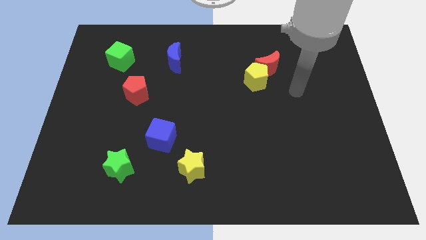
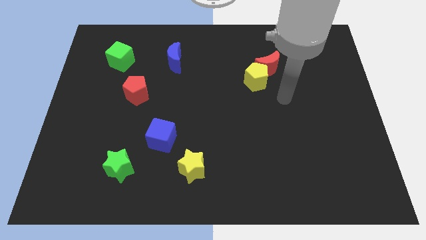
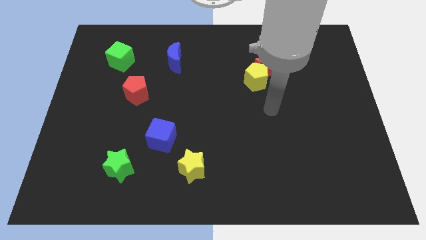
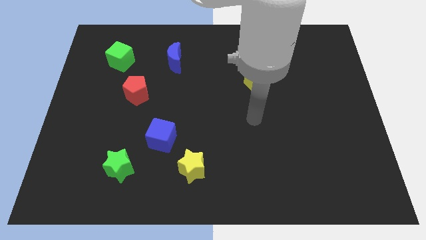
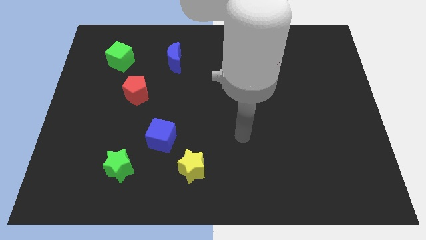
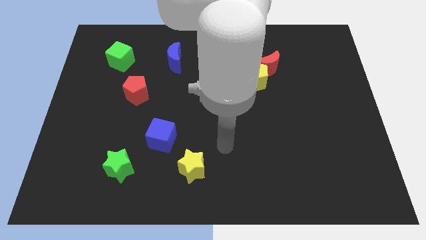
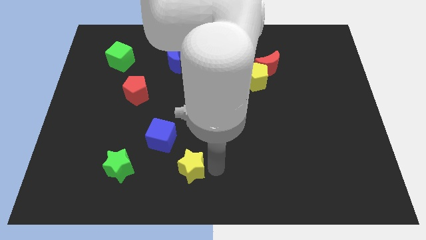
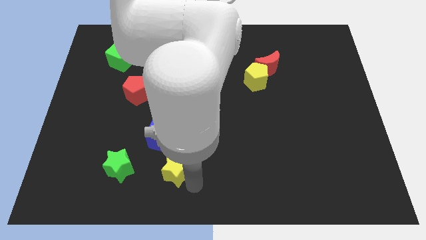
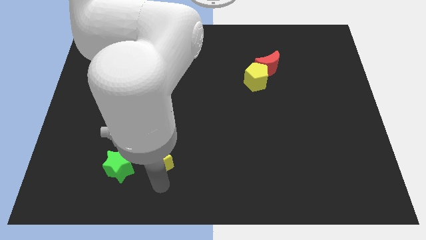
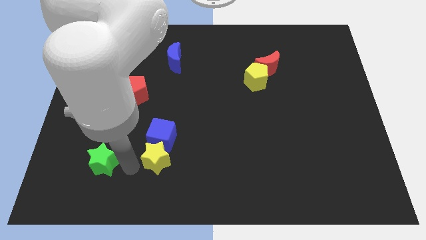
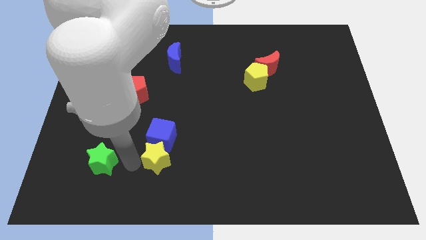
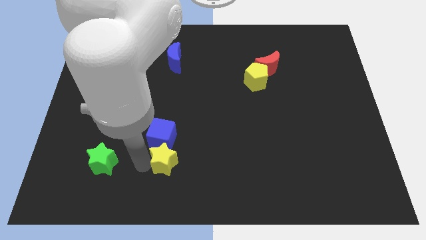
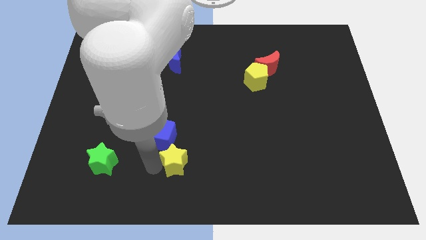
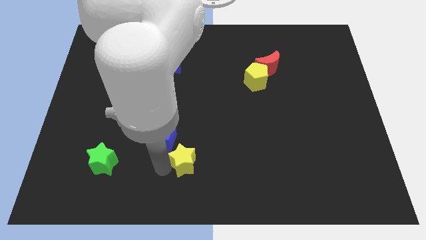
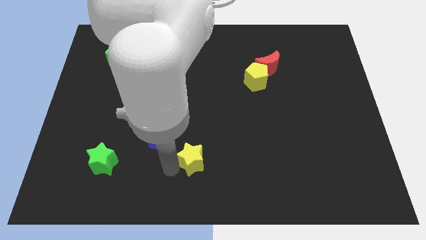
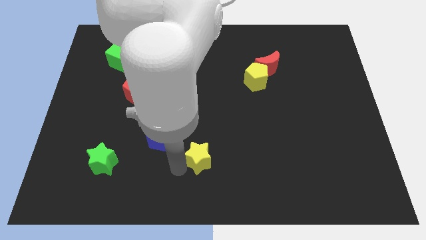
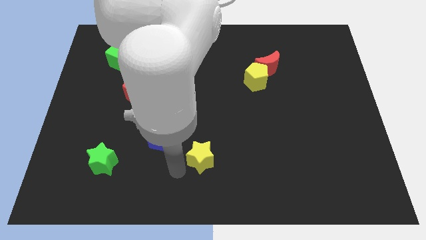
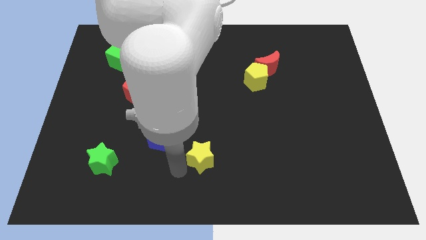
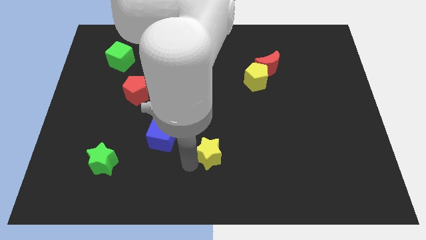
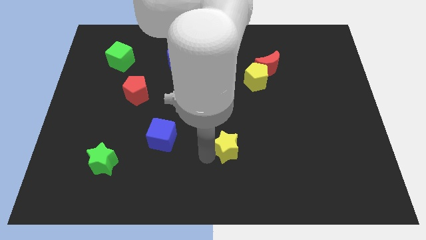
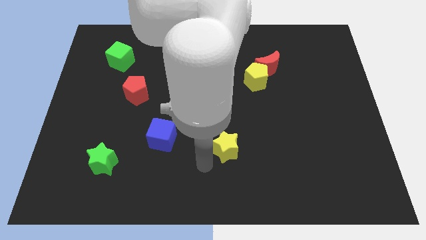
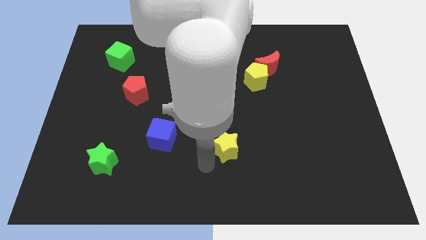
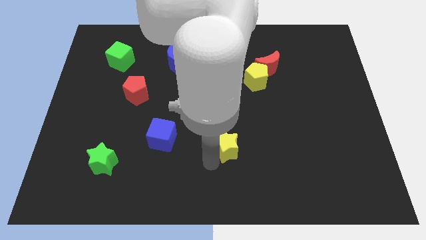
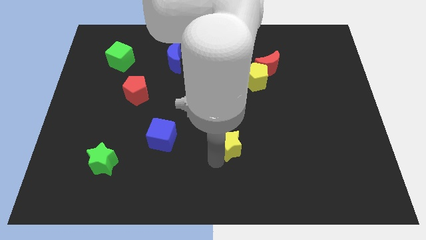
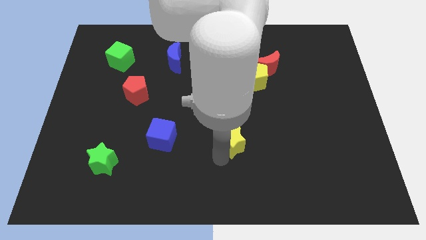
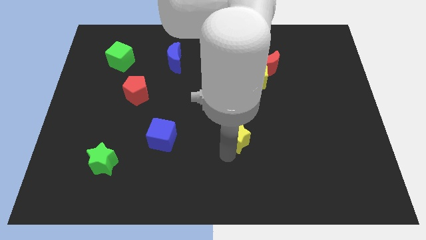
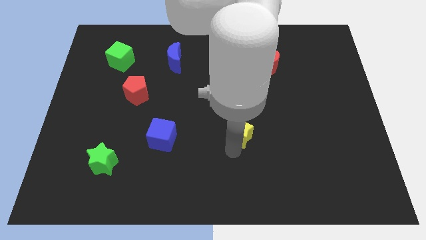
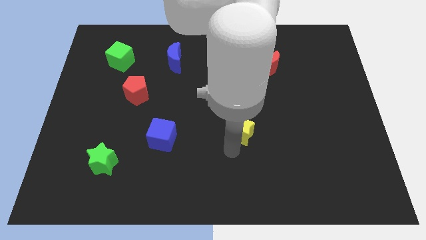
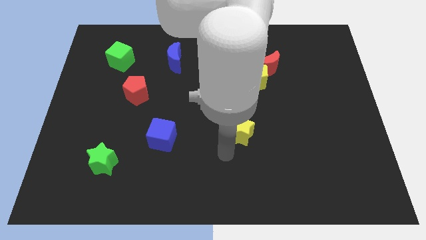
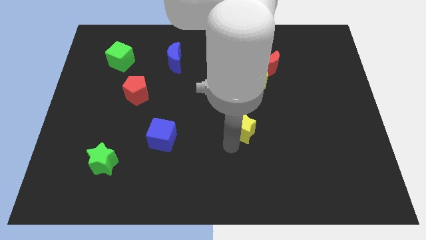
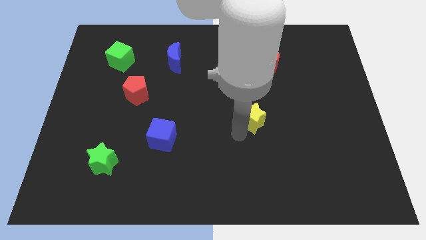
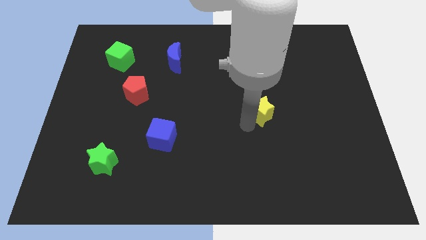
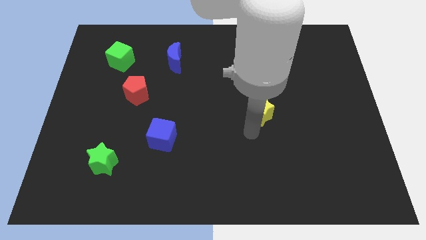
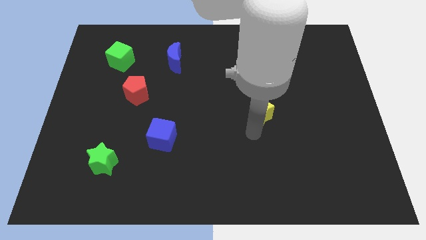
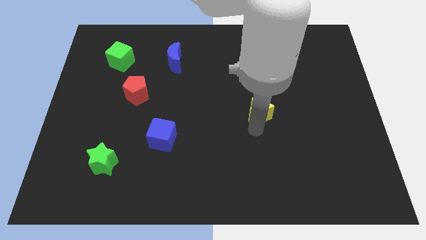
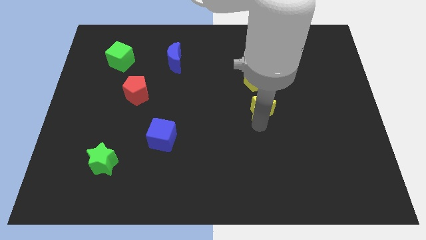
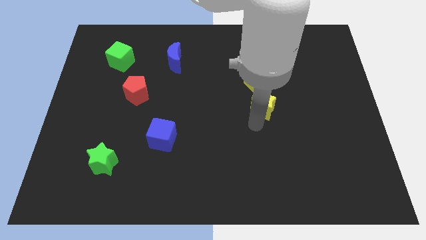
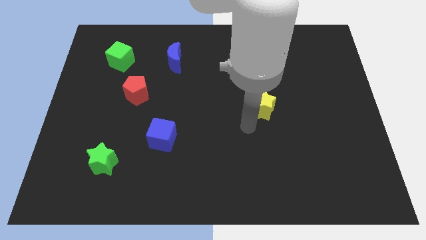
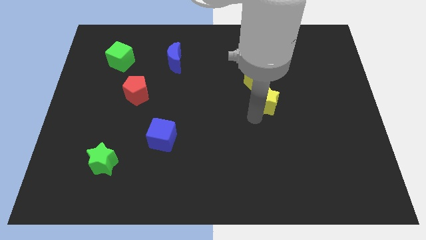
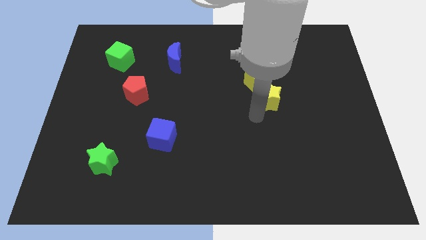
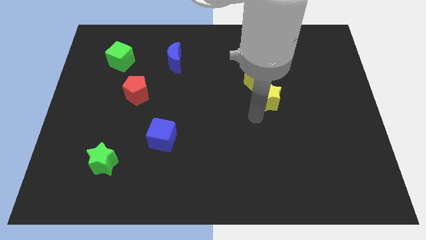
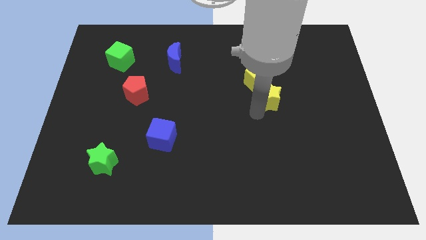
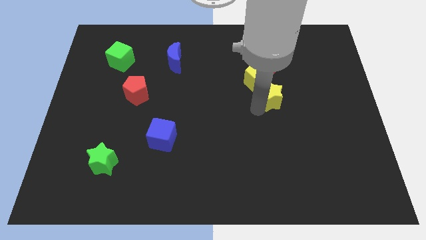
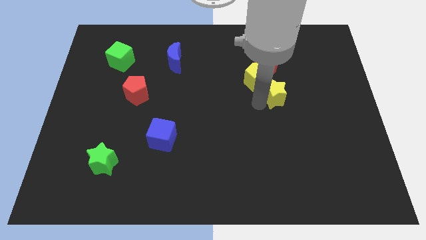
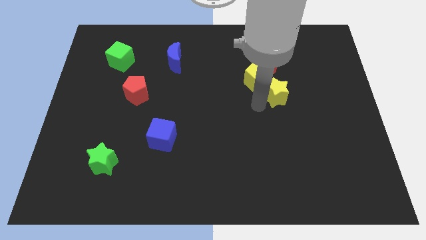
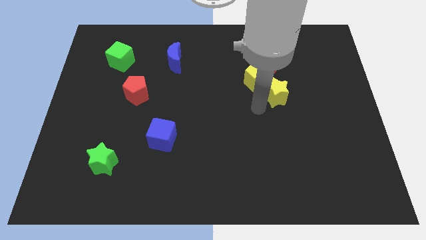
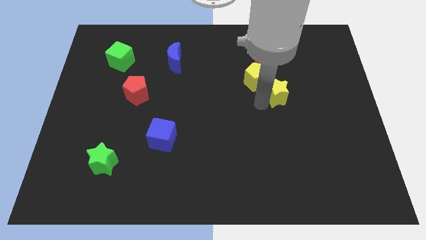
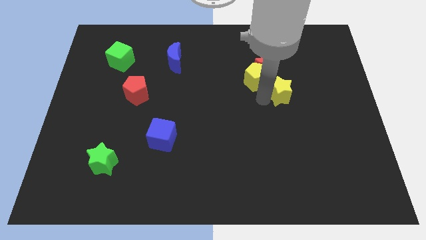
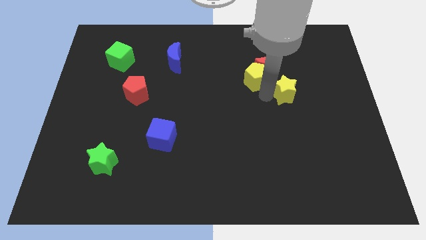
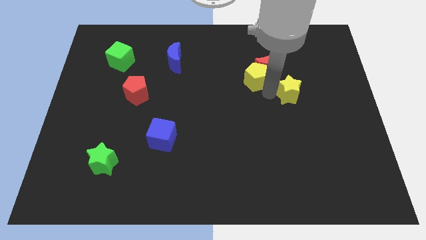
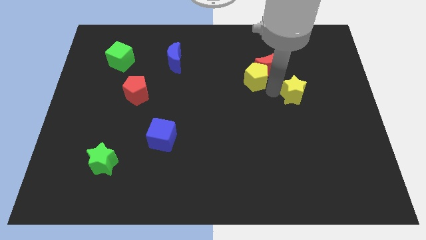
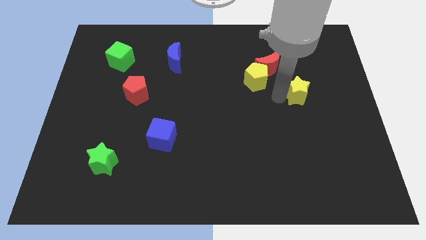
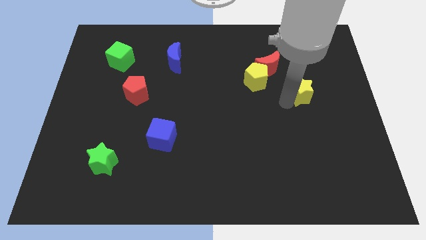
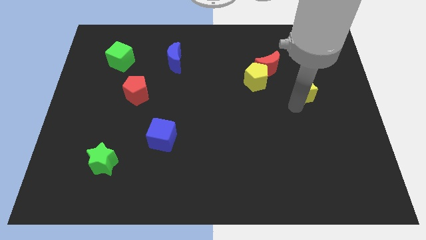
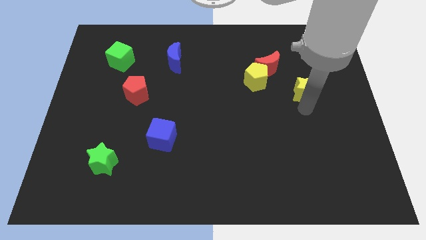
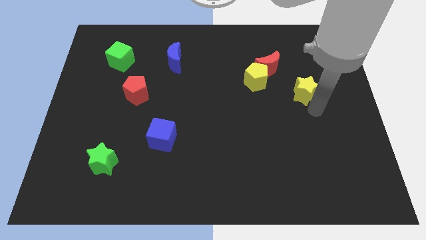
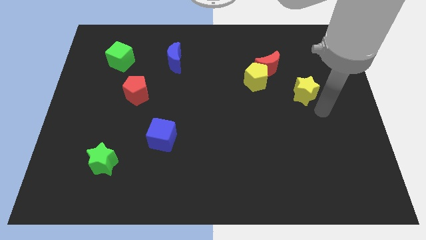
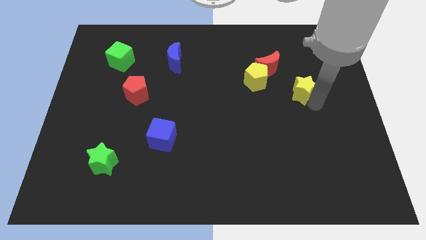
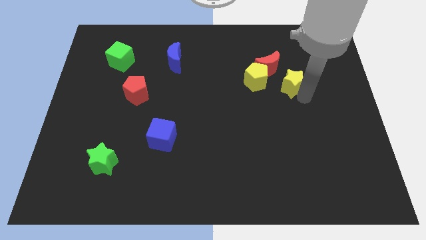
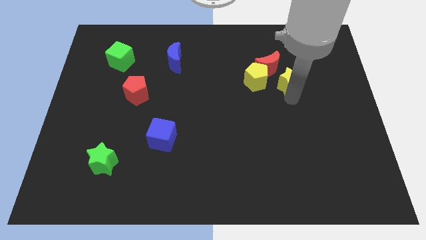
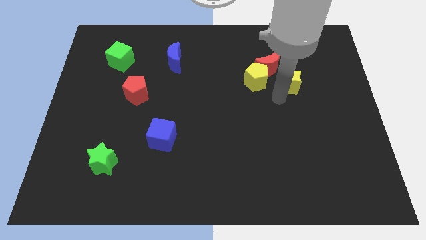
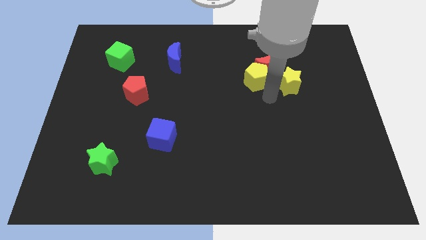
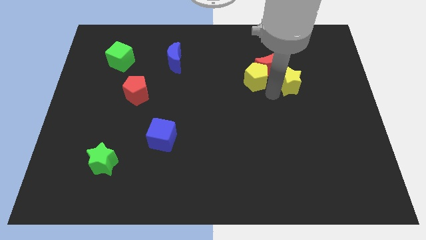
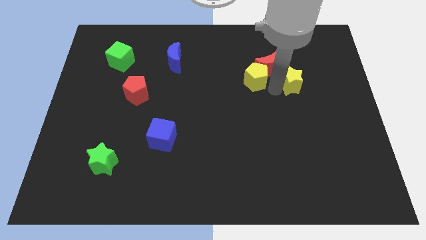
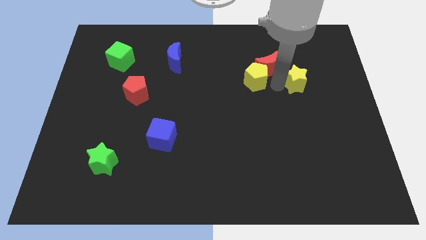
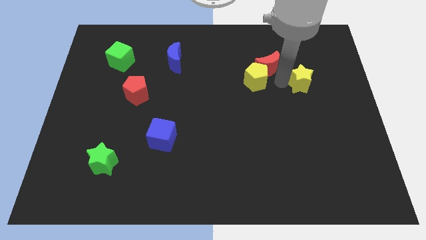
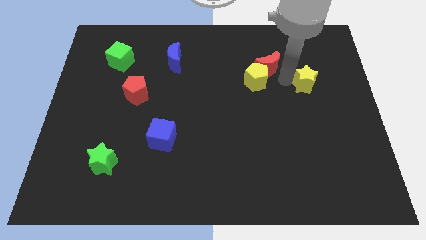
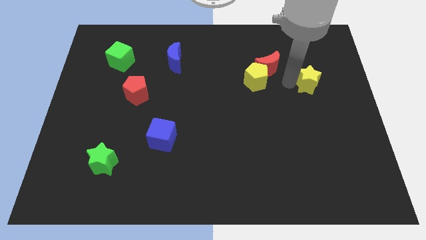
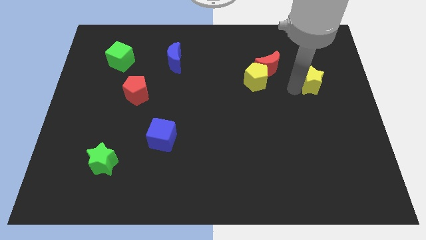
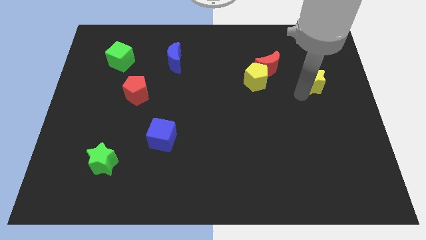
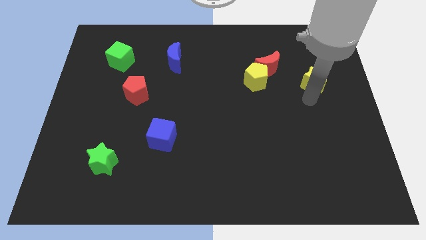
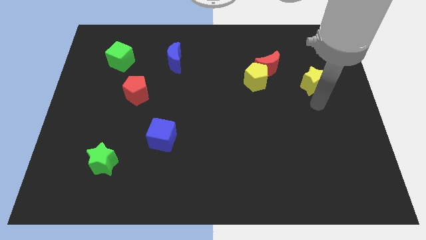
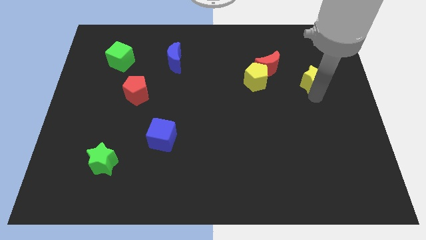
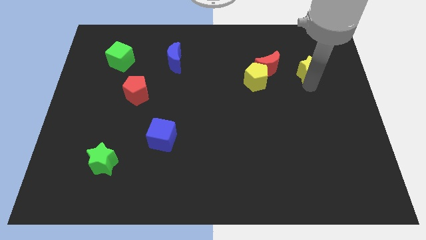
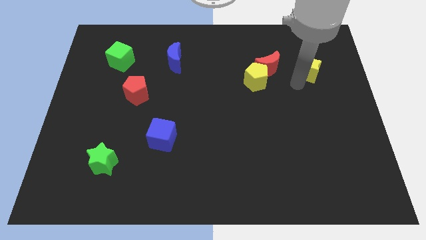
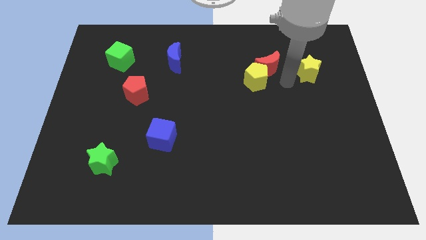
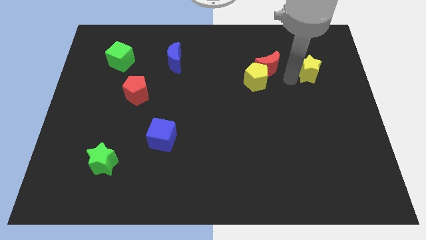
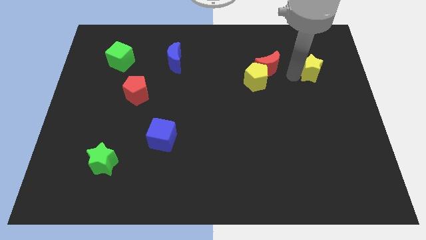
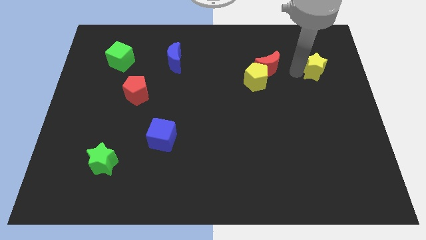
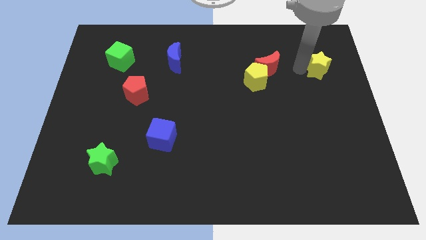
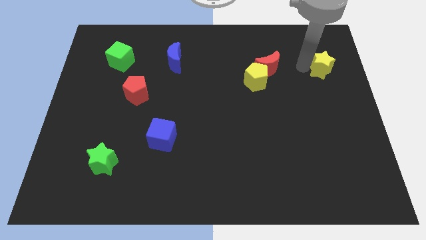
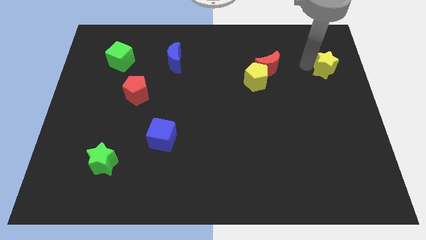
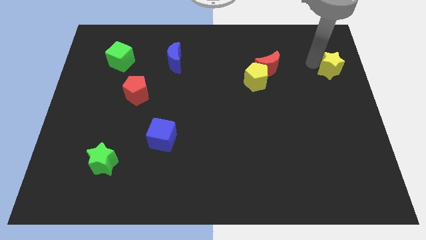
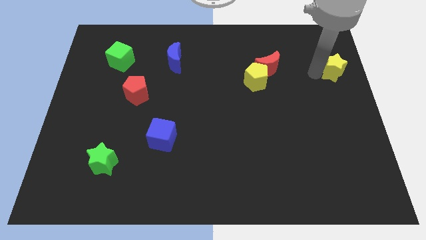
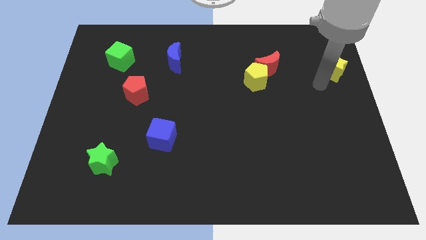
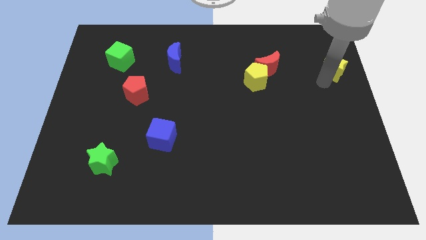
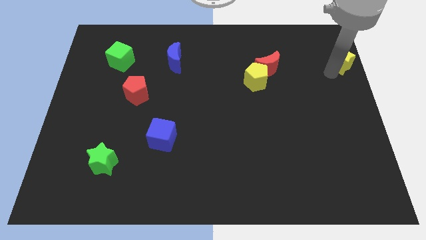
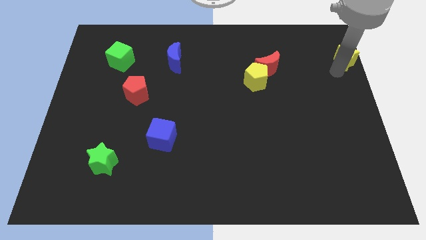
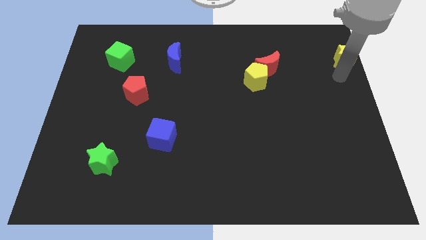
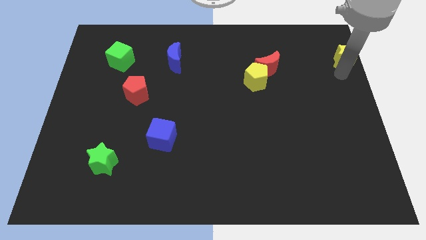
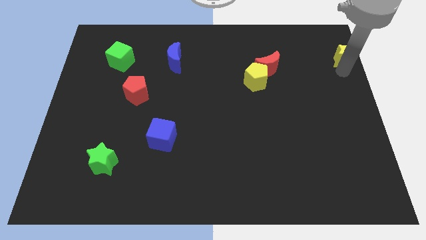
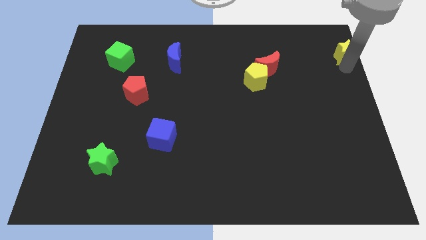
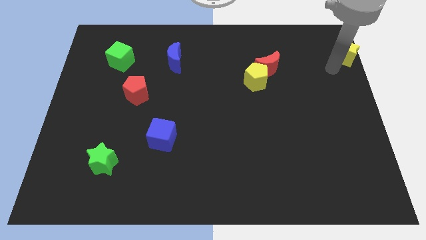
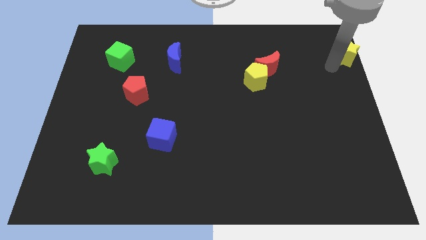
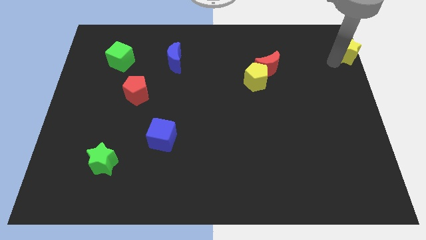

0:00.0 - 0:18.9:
put the yellow star to the upper right corner
